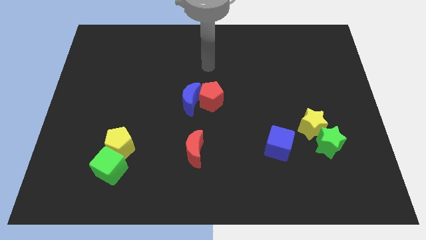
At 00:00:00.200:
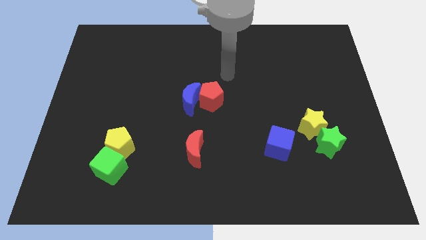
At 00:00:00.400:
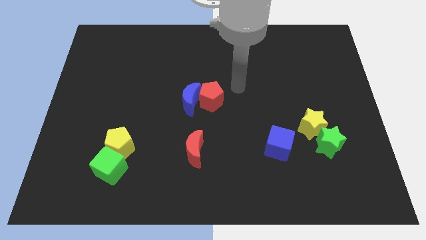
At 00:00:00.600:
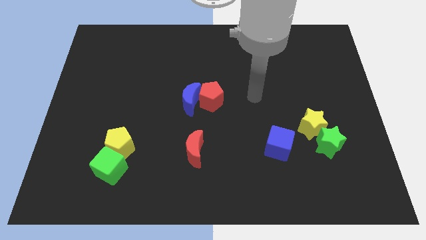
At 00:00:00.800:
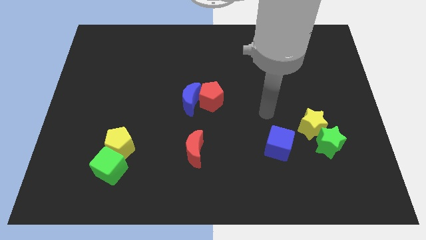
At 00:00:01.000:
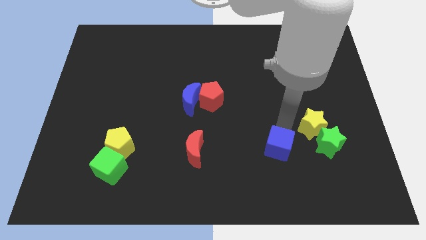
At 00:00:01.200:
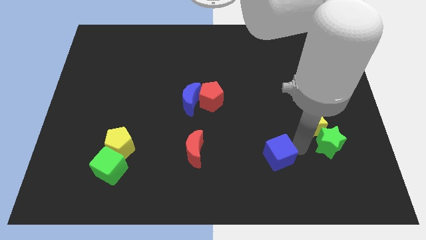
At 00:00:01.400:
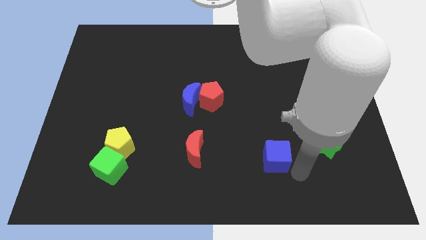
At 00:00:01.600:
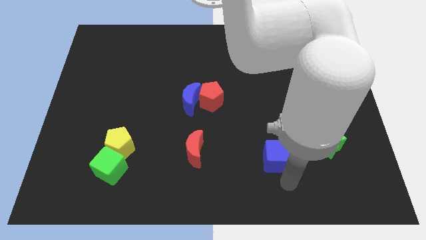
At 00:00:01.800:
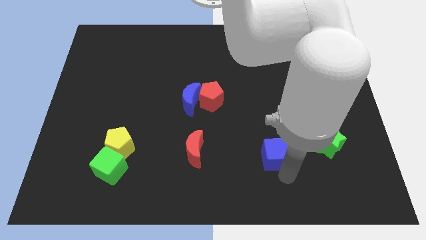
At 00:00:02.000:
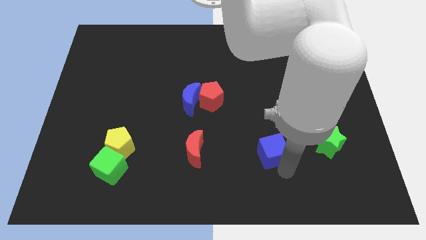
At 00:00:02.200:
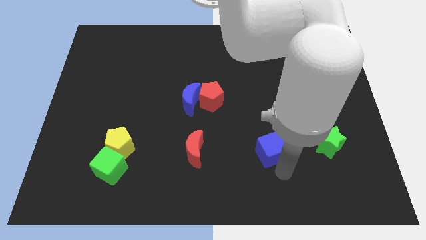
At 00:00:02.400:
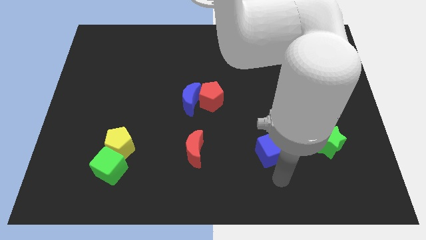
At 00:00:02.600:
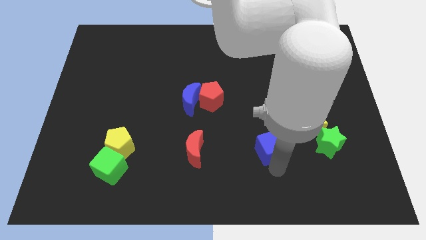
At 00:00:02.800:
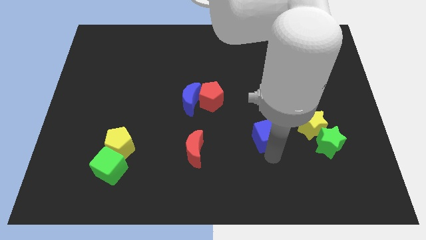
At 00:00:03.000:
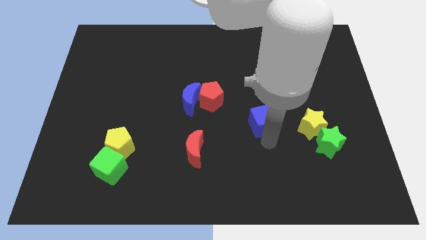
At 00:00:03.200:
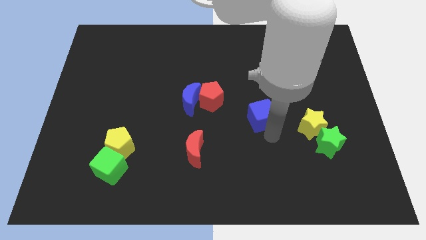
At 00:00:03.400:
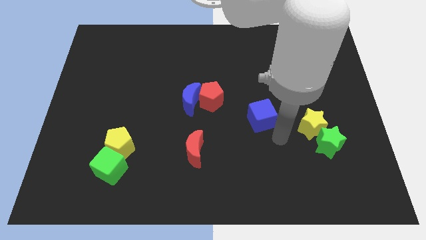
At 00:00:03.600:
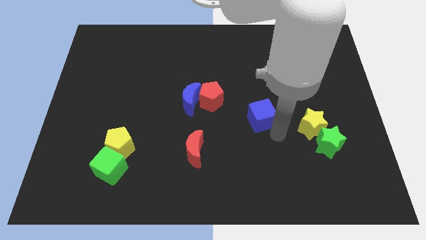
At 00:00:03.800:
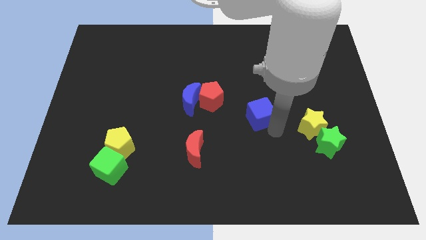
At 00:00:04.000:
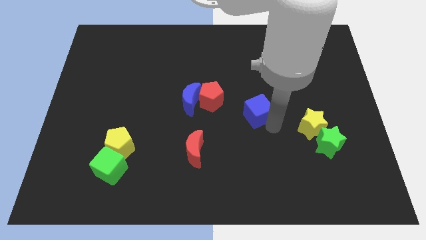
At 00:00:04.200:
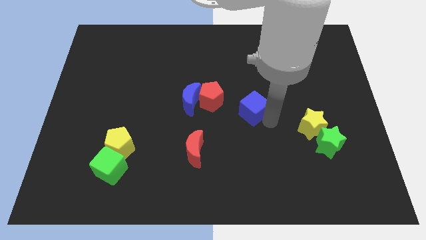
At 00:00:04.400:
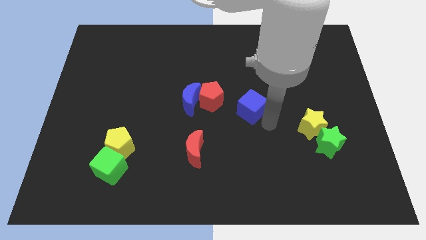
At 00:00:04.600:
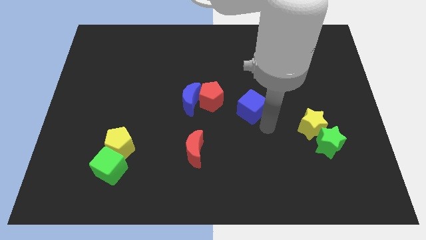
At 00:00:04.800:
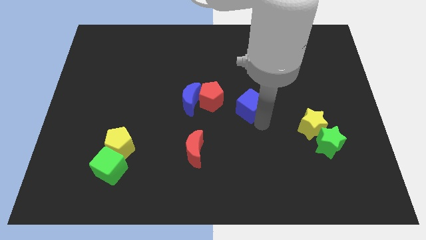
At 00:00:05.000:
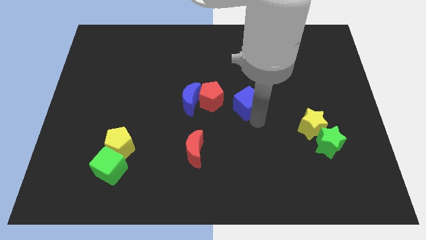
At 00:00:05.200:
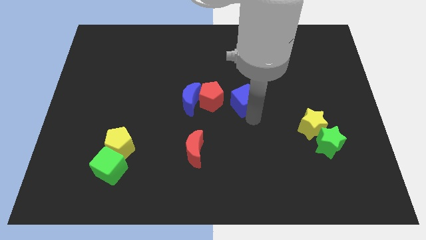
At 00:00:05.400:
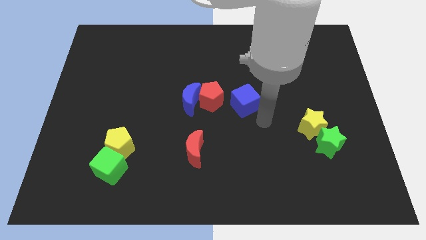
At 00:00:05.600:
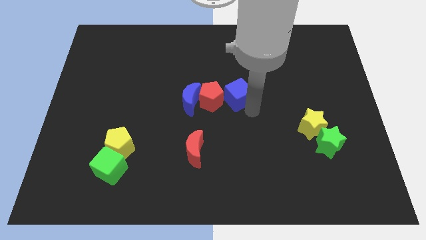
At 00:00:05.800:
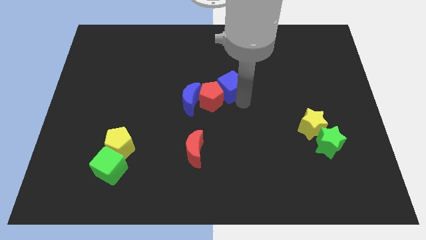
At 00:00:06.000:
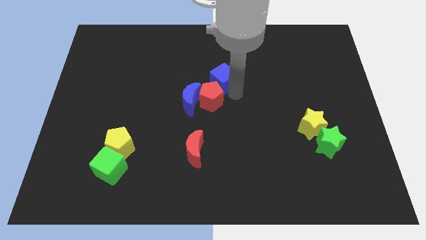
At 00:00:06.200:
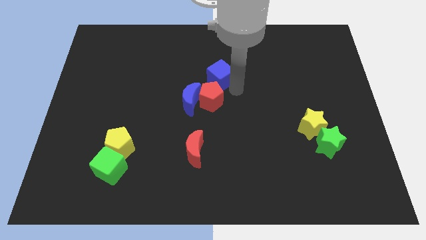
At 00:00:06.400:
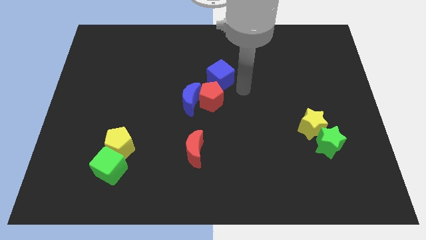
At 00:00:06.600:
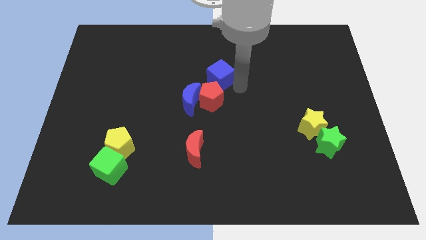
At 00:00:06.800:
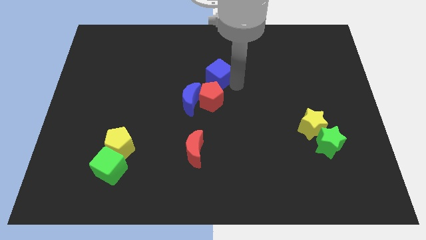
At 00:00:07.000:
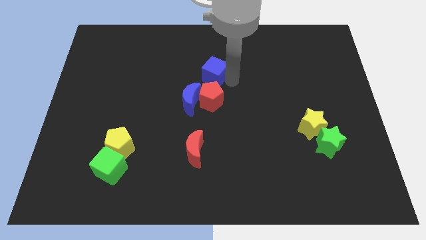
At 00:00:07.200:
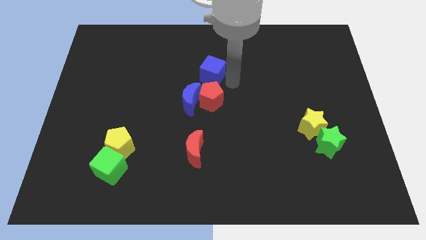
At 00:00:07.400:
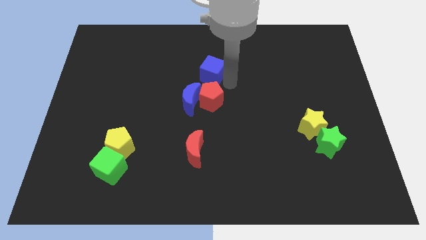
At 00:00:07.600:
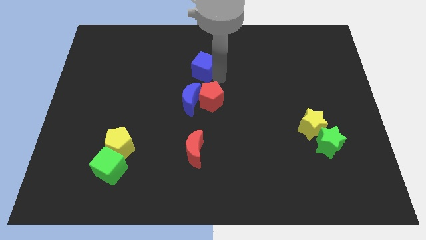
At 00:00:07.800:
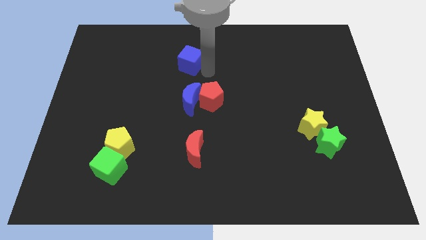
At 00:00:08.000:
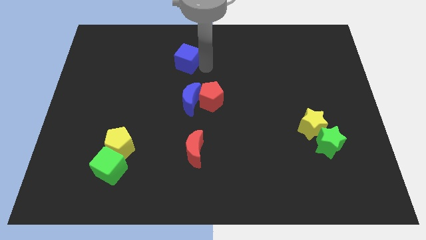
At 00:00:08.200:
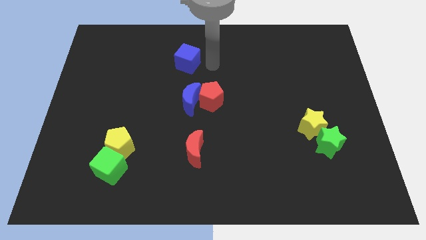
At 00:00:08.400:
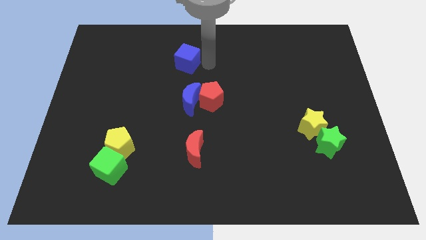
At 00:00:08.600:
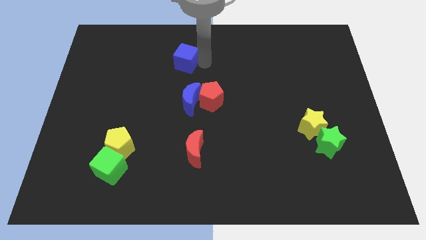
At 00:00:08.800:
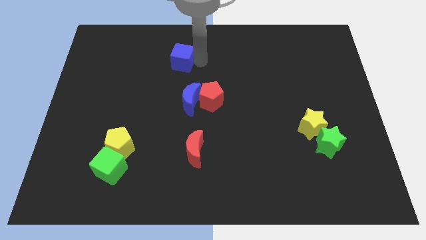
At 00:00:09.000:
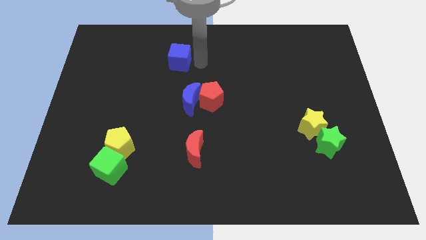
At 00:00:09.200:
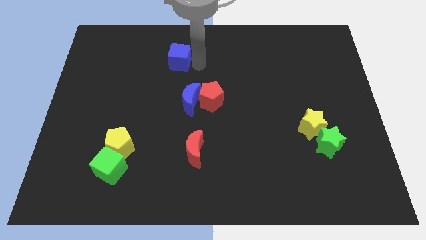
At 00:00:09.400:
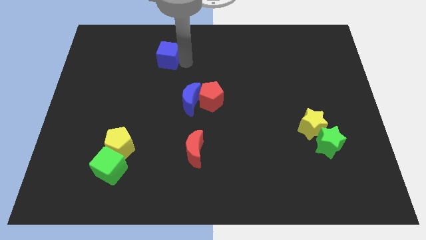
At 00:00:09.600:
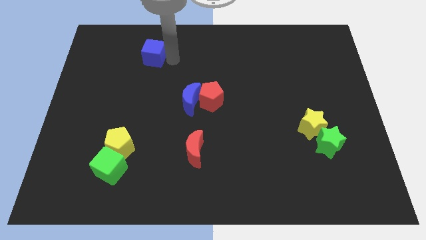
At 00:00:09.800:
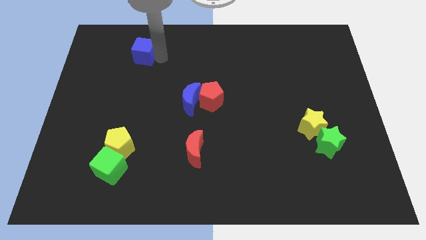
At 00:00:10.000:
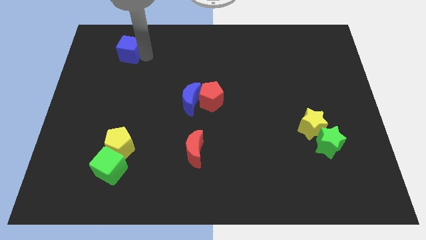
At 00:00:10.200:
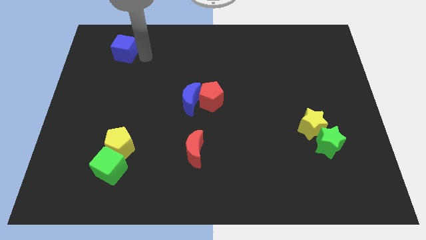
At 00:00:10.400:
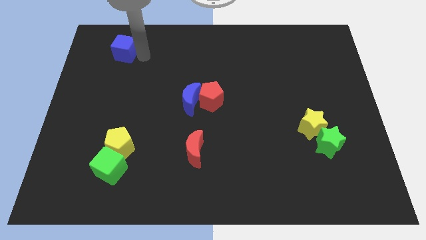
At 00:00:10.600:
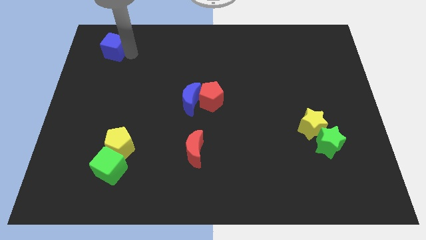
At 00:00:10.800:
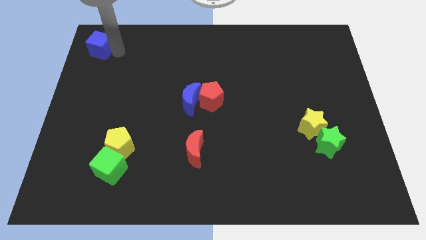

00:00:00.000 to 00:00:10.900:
put the blue cube to the top left

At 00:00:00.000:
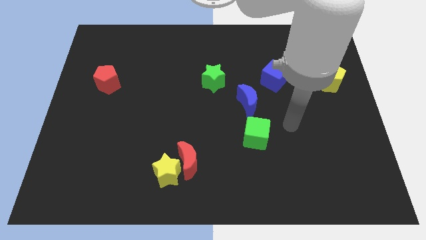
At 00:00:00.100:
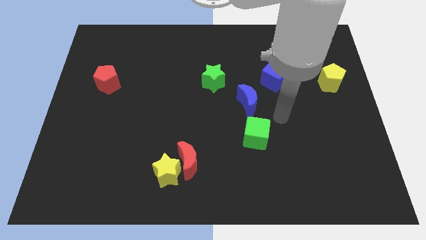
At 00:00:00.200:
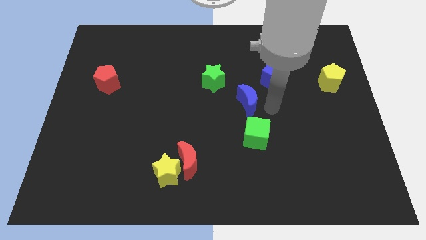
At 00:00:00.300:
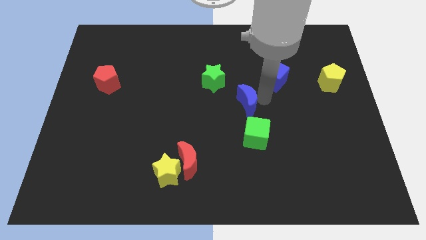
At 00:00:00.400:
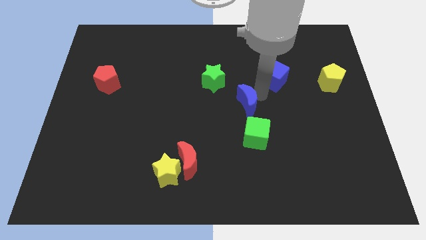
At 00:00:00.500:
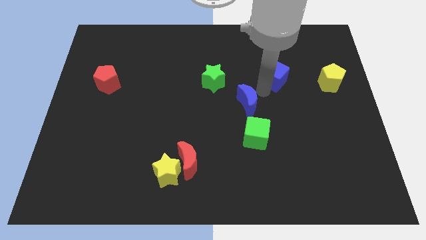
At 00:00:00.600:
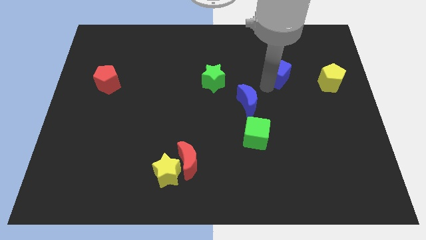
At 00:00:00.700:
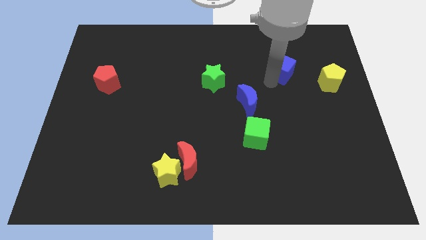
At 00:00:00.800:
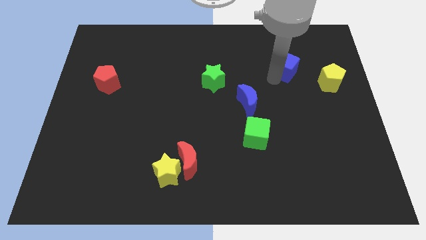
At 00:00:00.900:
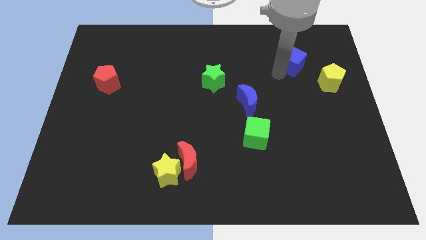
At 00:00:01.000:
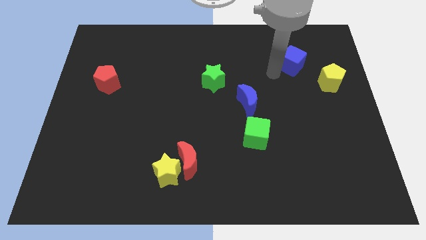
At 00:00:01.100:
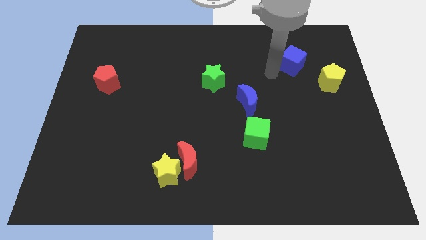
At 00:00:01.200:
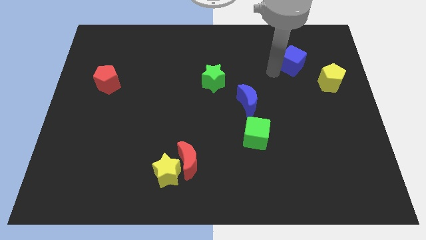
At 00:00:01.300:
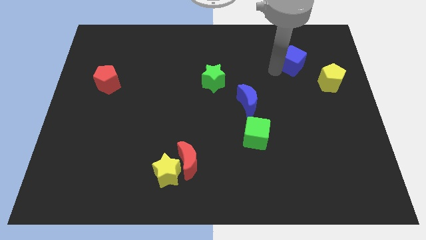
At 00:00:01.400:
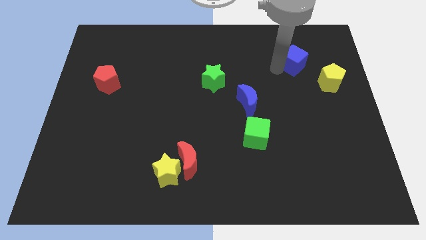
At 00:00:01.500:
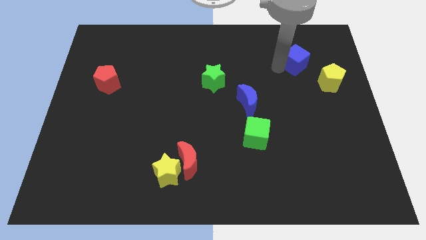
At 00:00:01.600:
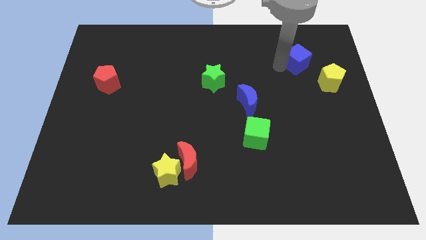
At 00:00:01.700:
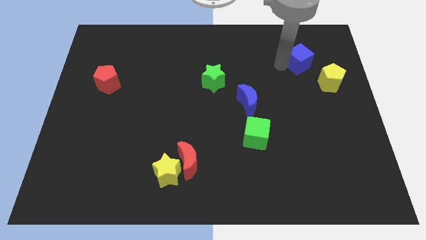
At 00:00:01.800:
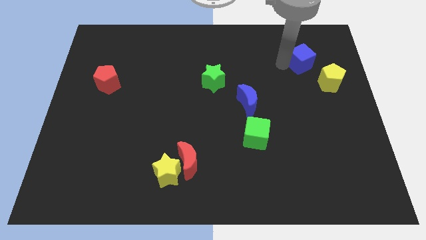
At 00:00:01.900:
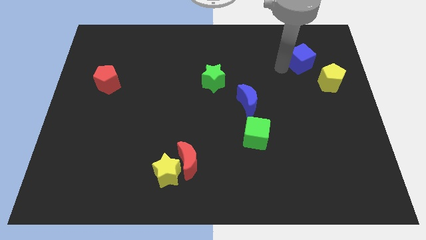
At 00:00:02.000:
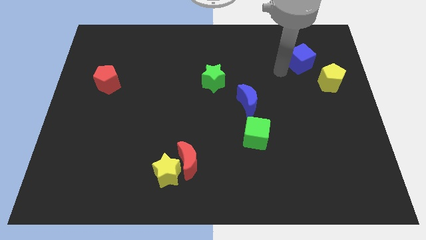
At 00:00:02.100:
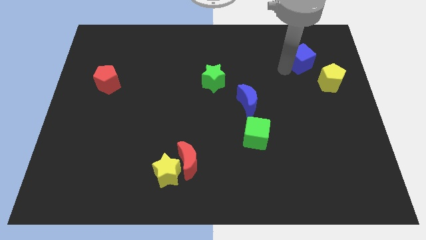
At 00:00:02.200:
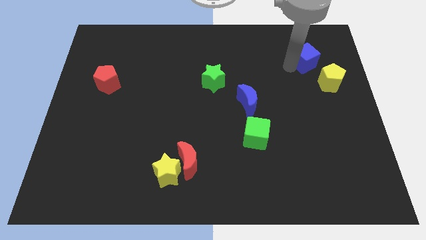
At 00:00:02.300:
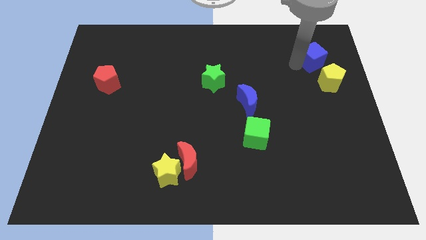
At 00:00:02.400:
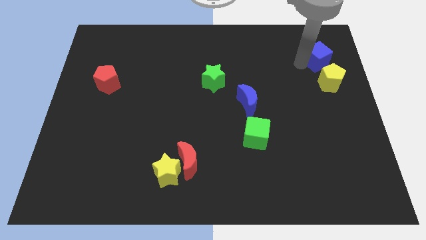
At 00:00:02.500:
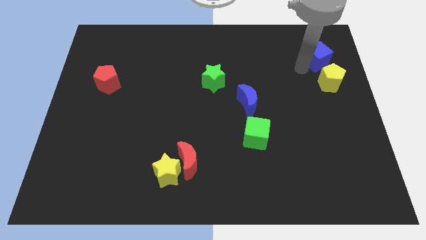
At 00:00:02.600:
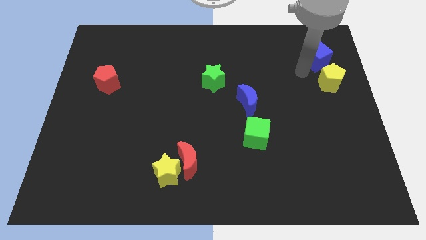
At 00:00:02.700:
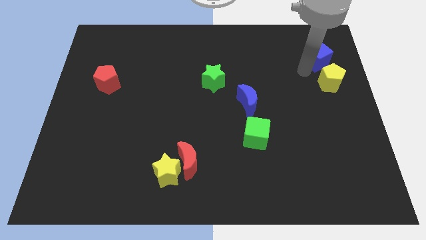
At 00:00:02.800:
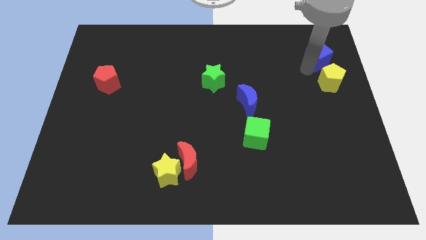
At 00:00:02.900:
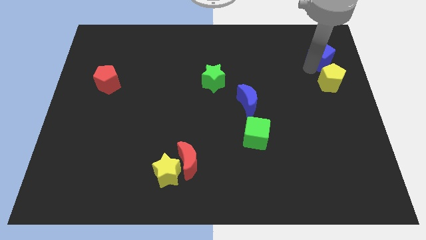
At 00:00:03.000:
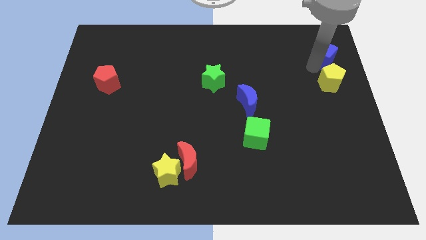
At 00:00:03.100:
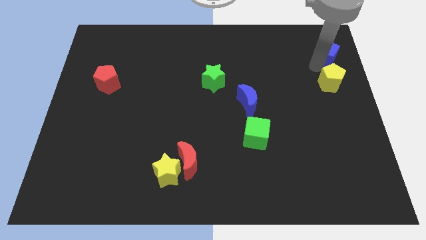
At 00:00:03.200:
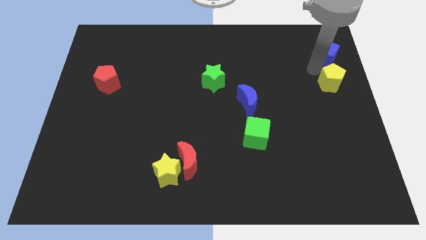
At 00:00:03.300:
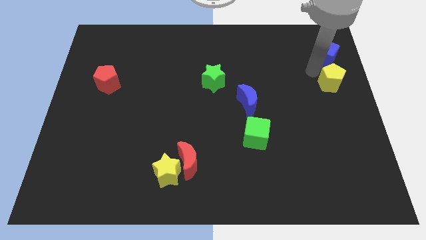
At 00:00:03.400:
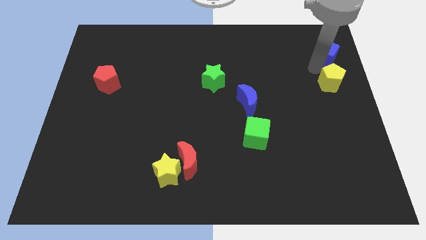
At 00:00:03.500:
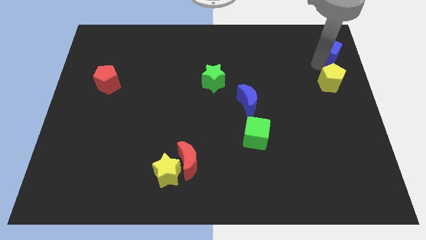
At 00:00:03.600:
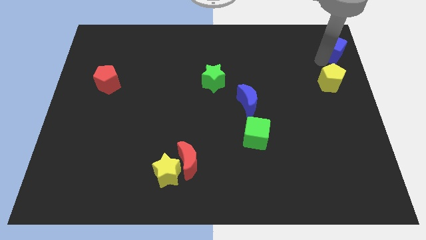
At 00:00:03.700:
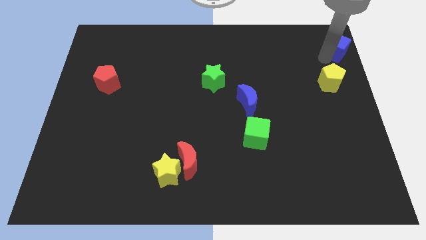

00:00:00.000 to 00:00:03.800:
move the blue cube to the top right corner
